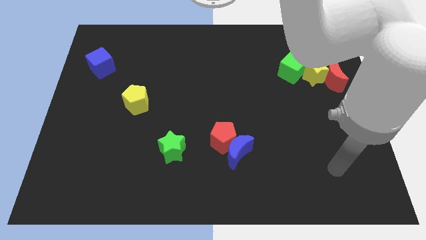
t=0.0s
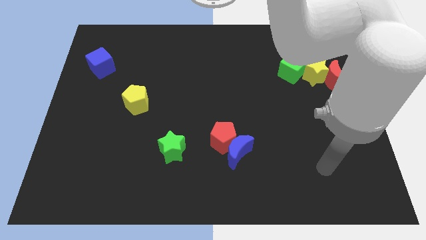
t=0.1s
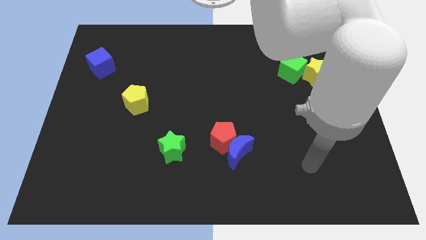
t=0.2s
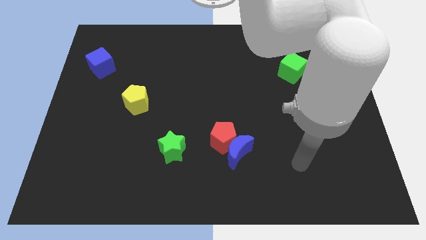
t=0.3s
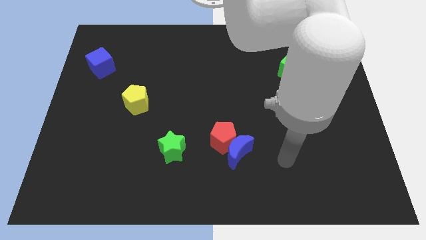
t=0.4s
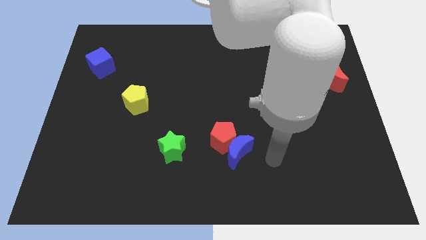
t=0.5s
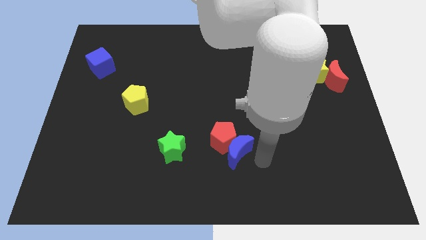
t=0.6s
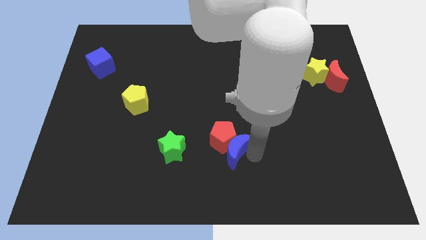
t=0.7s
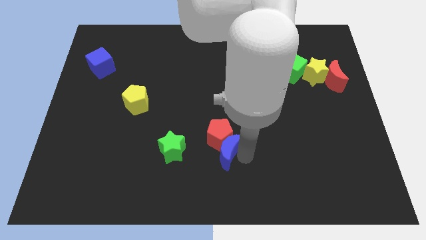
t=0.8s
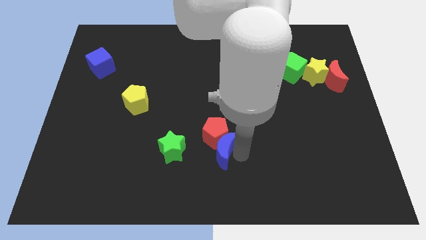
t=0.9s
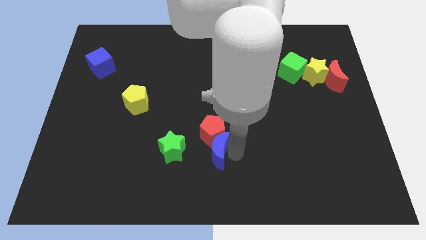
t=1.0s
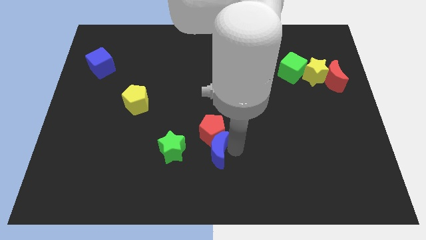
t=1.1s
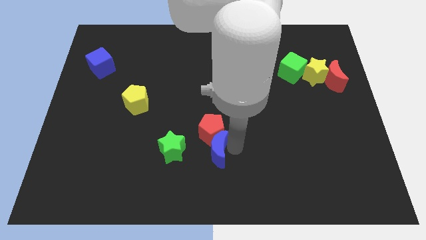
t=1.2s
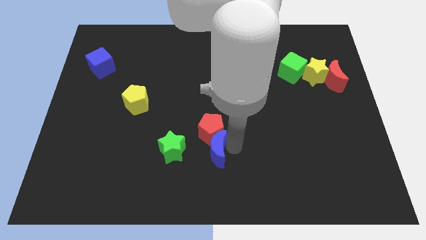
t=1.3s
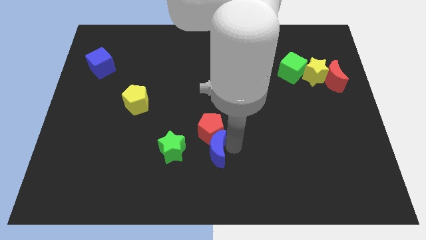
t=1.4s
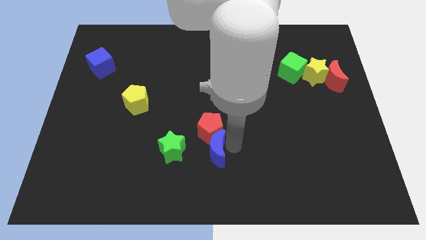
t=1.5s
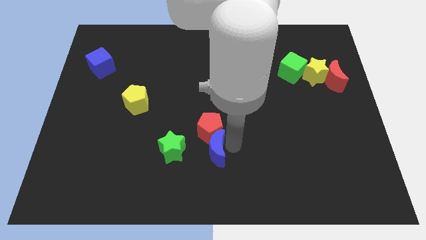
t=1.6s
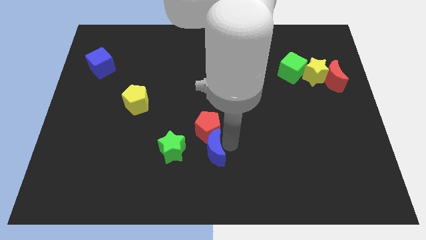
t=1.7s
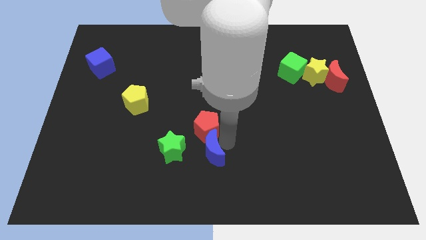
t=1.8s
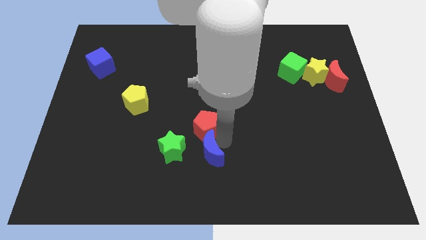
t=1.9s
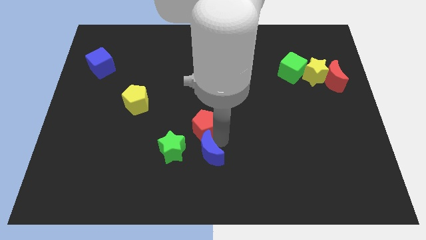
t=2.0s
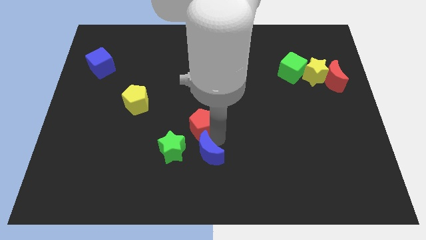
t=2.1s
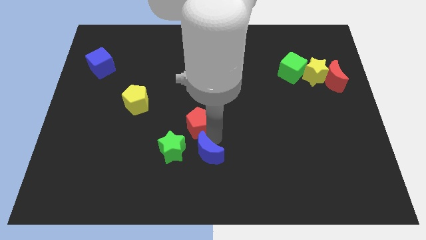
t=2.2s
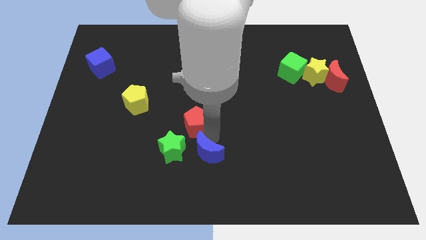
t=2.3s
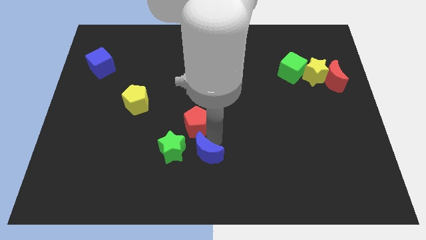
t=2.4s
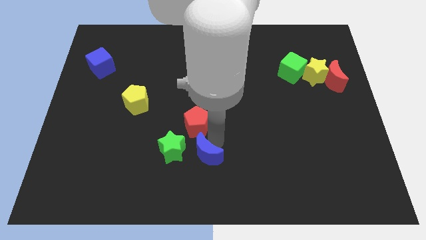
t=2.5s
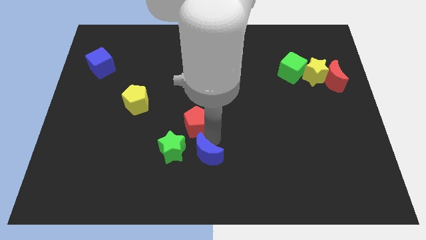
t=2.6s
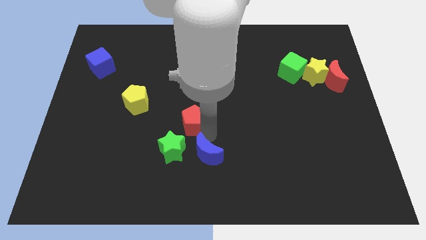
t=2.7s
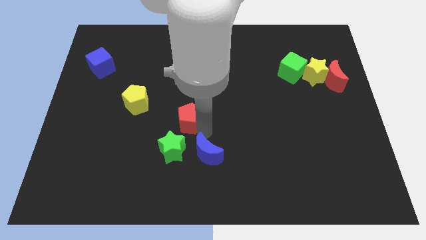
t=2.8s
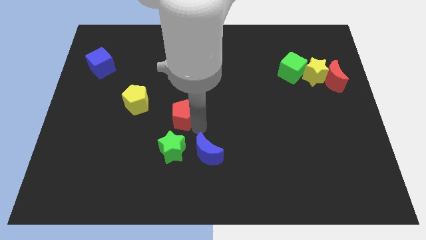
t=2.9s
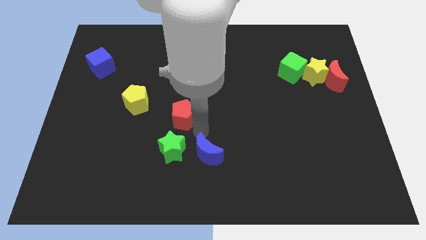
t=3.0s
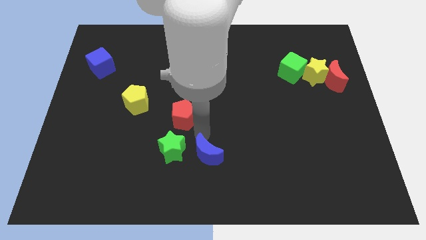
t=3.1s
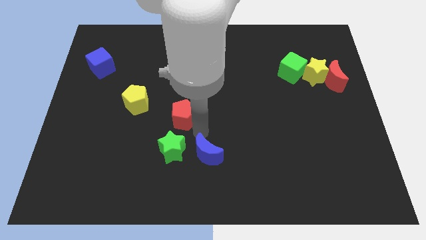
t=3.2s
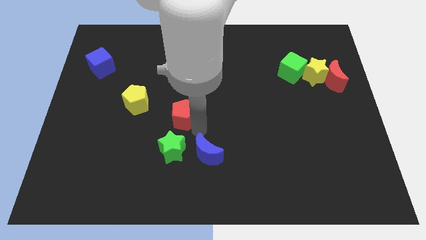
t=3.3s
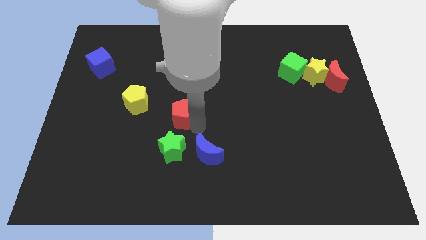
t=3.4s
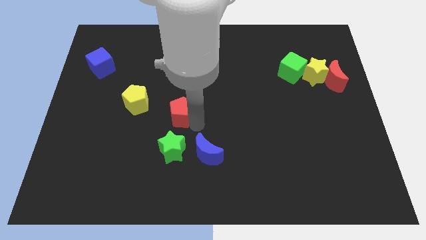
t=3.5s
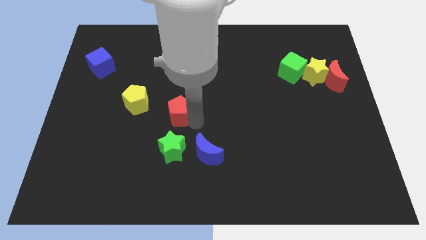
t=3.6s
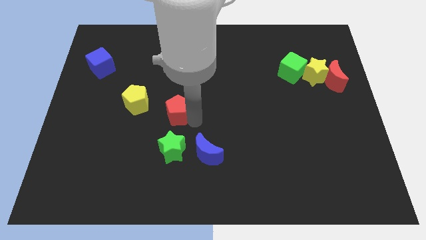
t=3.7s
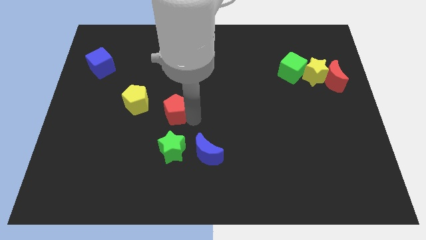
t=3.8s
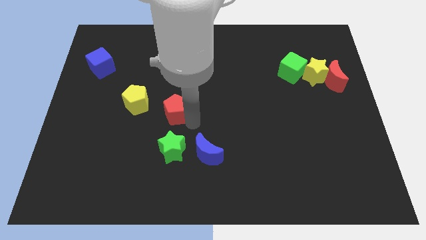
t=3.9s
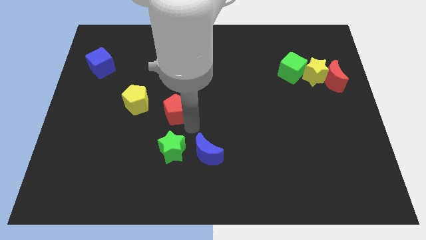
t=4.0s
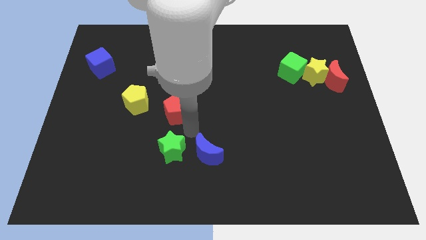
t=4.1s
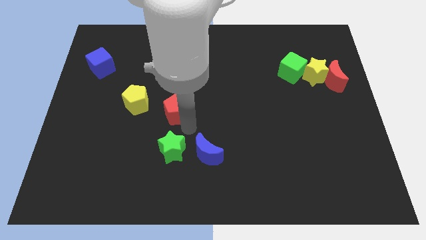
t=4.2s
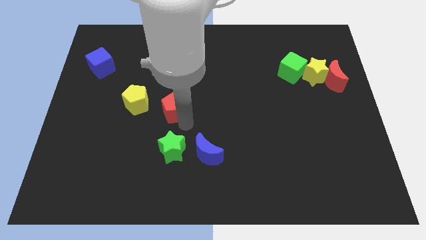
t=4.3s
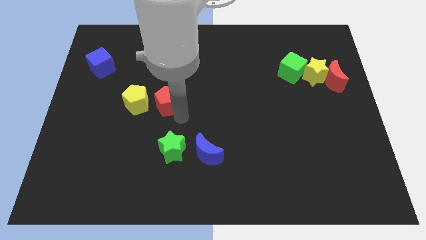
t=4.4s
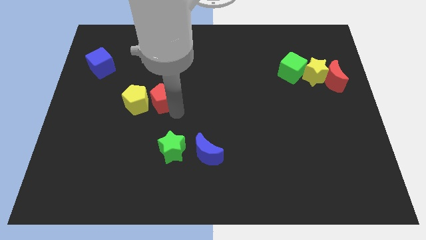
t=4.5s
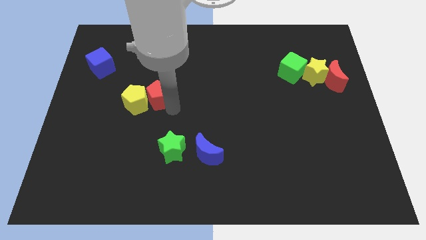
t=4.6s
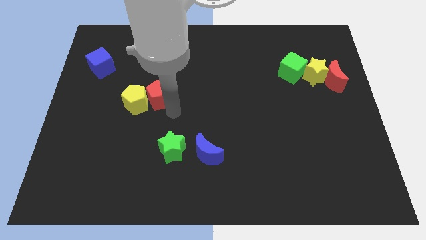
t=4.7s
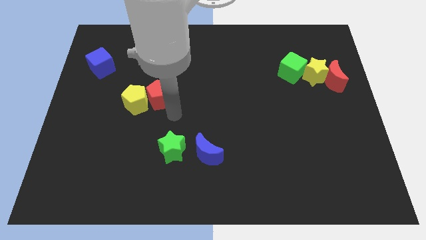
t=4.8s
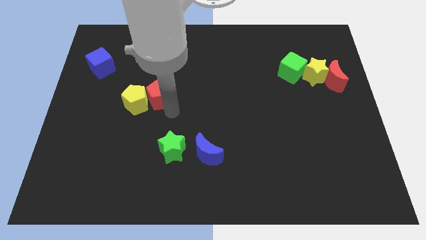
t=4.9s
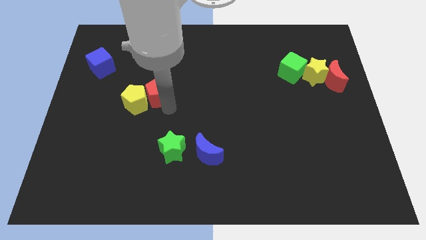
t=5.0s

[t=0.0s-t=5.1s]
slide the red pentagon up and to the left

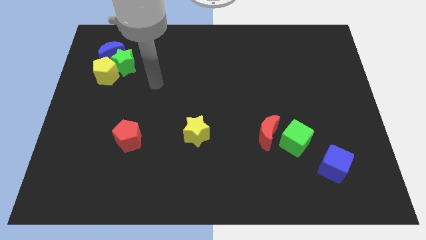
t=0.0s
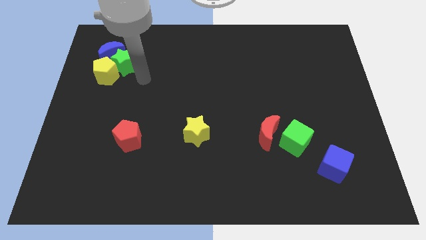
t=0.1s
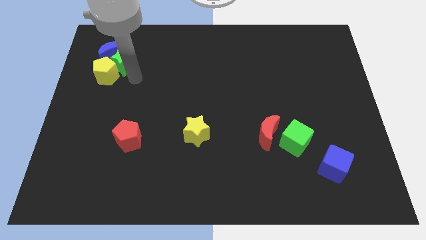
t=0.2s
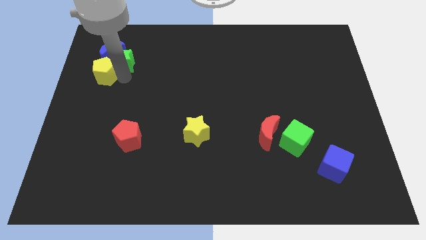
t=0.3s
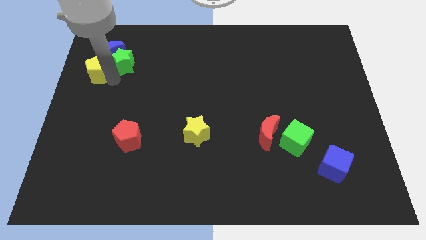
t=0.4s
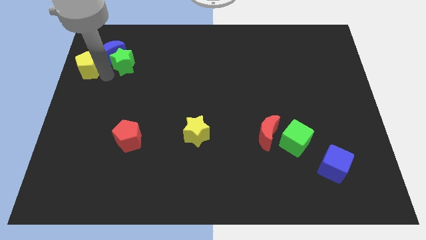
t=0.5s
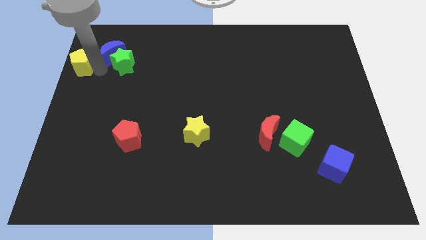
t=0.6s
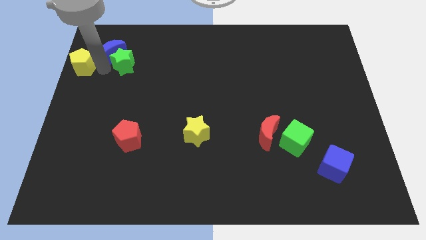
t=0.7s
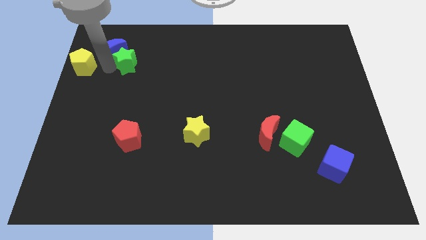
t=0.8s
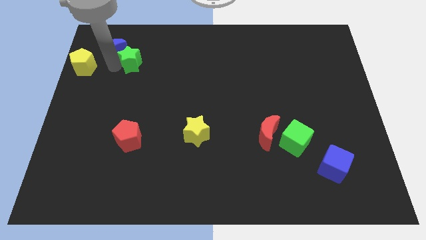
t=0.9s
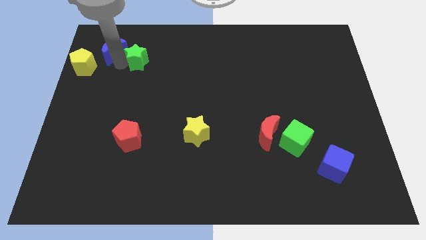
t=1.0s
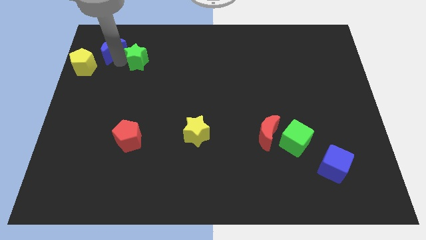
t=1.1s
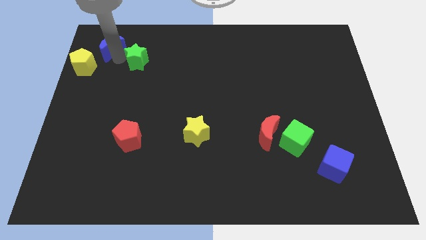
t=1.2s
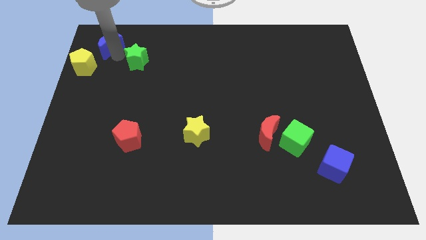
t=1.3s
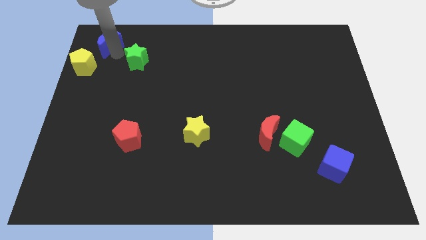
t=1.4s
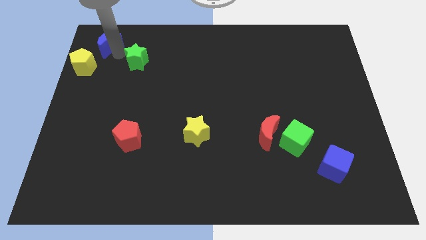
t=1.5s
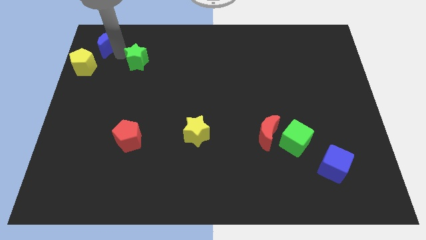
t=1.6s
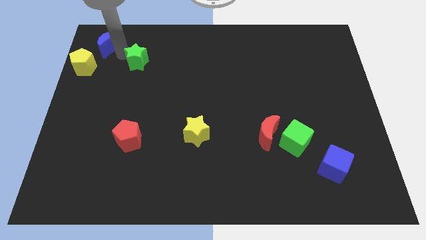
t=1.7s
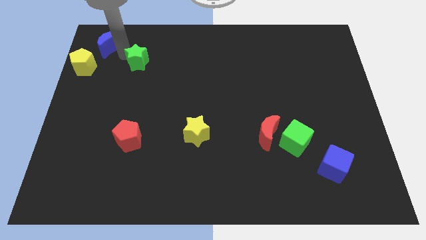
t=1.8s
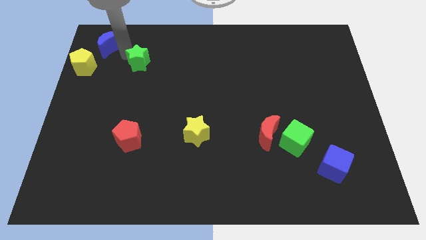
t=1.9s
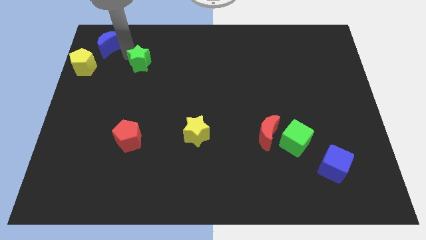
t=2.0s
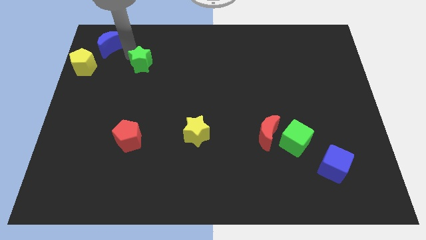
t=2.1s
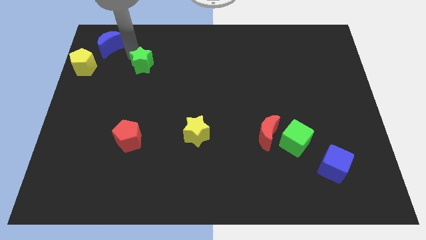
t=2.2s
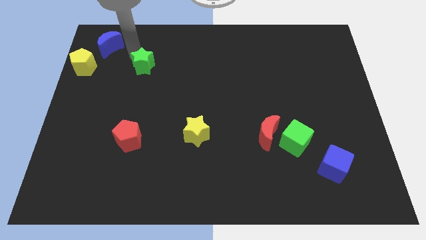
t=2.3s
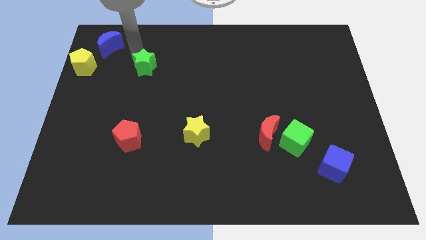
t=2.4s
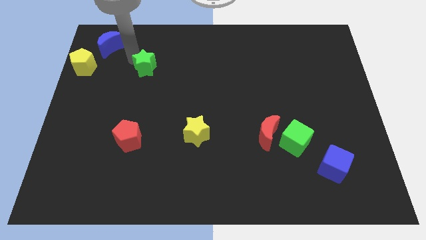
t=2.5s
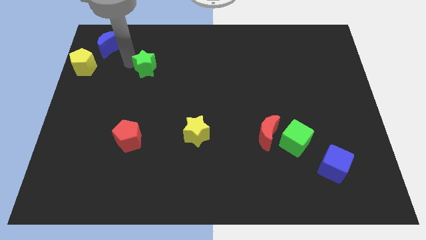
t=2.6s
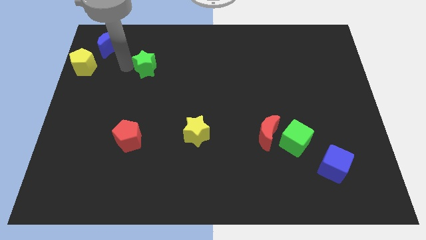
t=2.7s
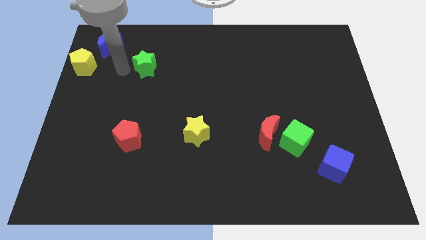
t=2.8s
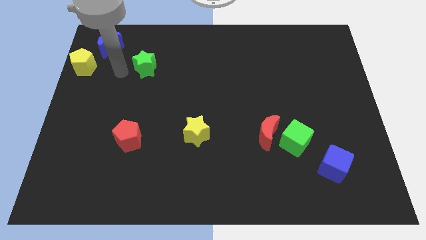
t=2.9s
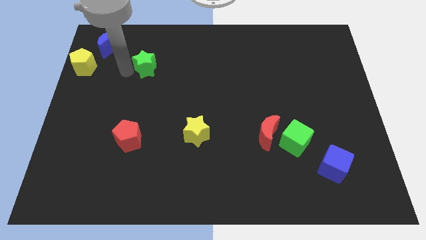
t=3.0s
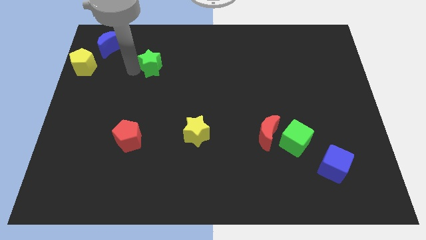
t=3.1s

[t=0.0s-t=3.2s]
slightly slide the green star to the right
